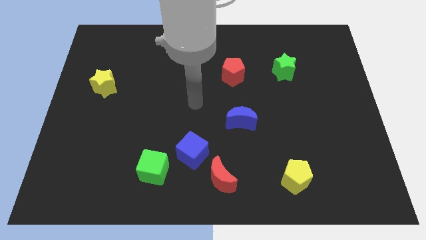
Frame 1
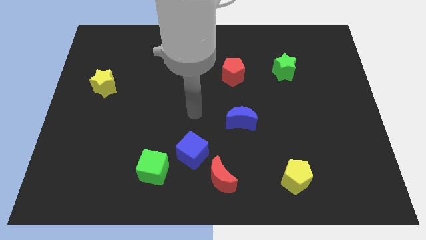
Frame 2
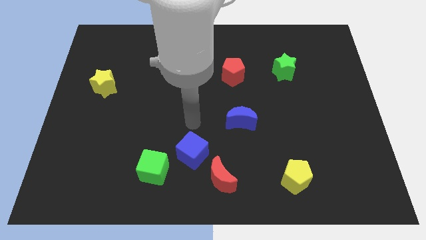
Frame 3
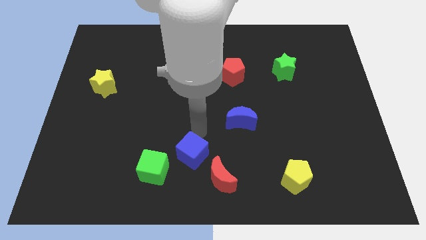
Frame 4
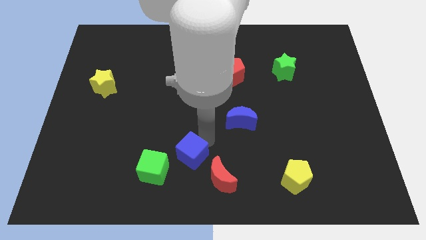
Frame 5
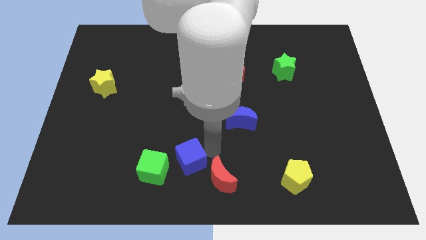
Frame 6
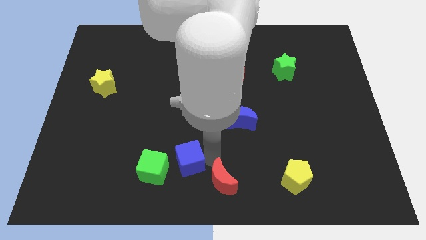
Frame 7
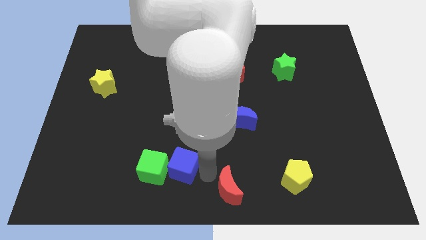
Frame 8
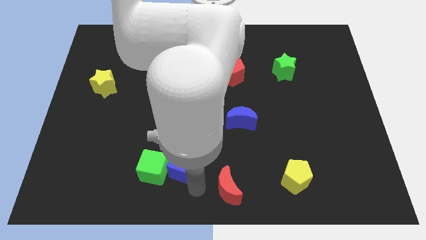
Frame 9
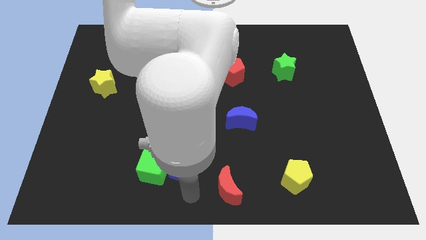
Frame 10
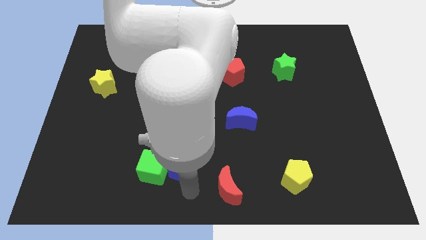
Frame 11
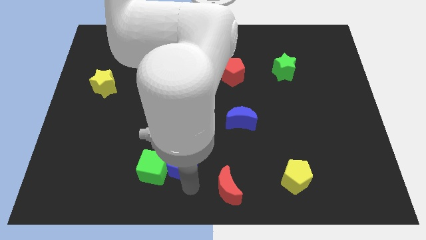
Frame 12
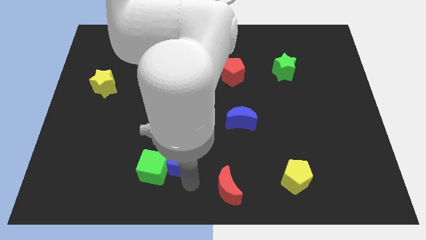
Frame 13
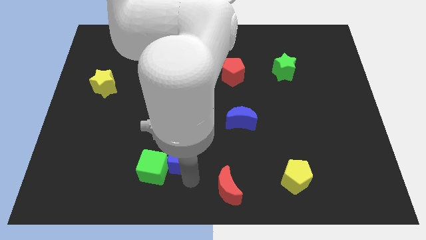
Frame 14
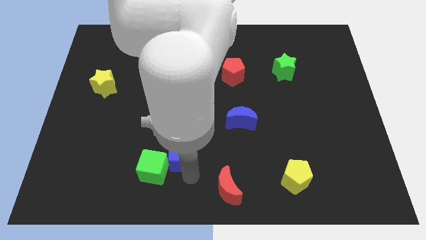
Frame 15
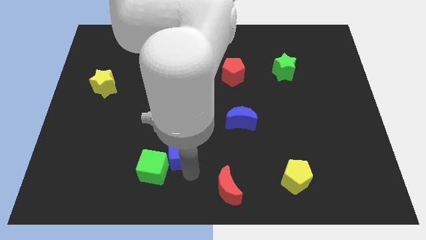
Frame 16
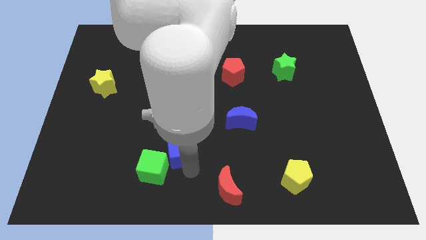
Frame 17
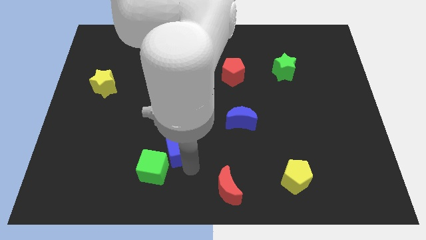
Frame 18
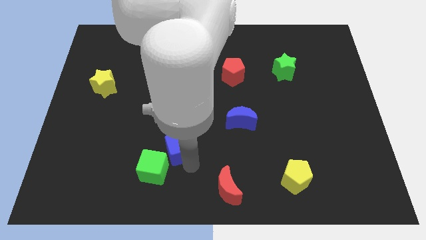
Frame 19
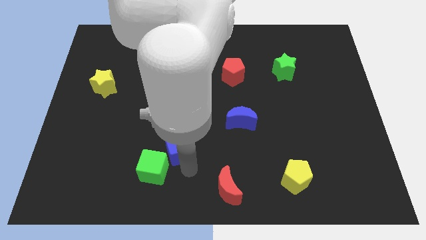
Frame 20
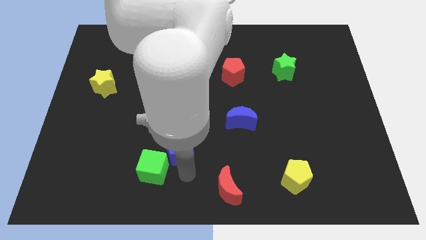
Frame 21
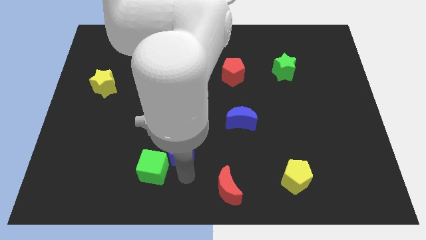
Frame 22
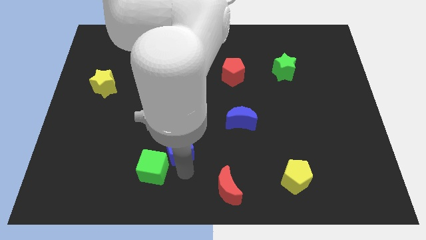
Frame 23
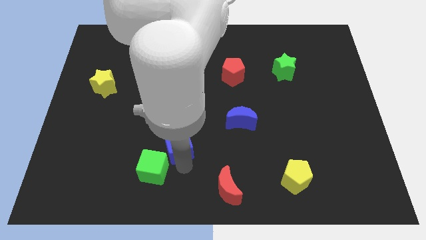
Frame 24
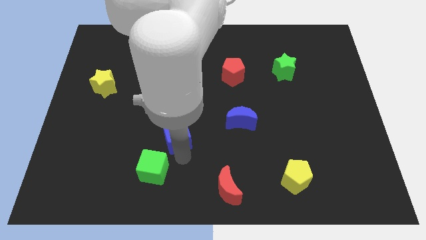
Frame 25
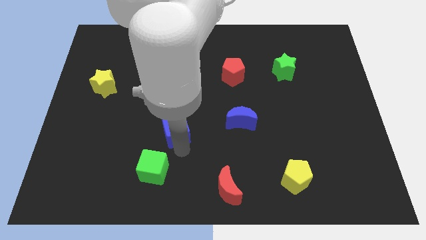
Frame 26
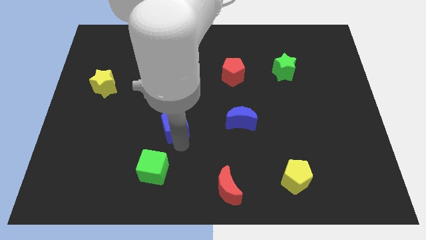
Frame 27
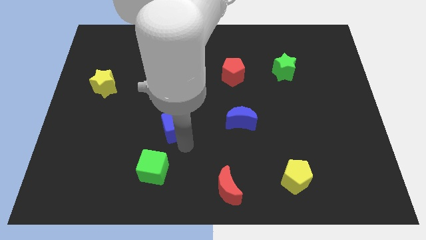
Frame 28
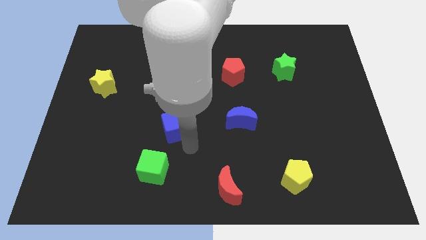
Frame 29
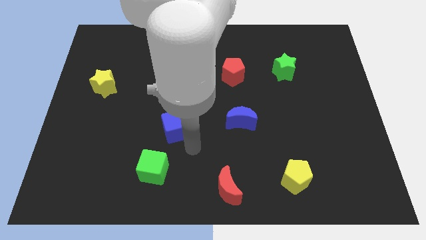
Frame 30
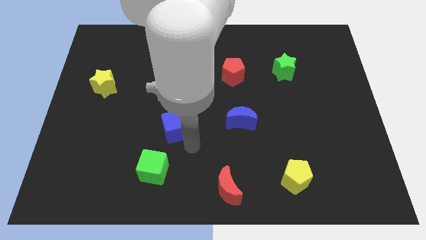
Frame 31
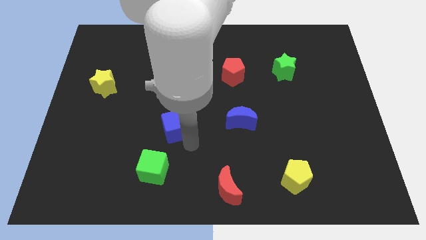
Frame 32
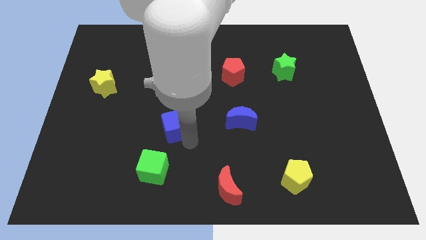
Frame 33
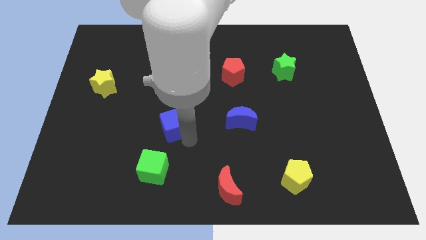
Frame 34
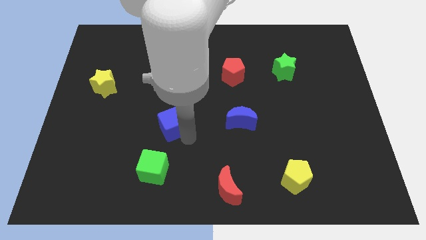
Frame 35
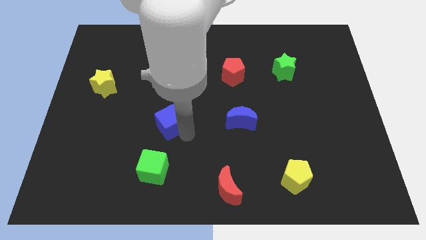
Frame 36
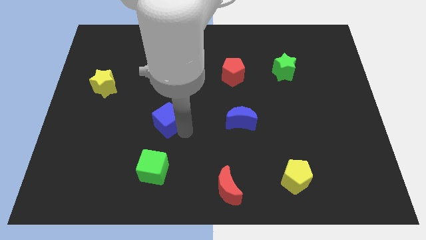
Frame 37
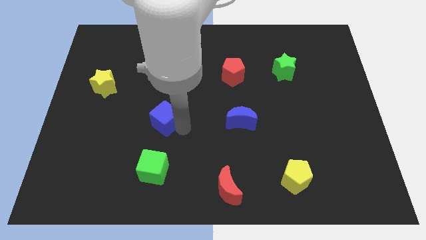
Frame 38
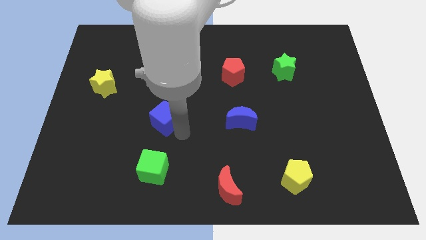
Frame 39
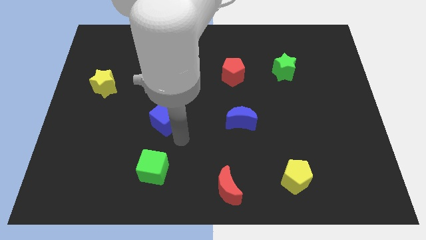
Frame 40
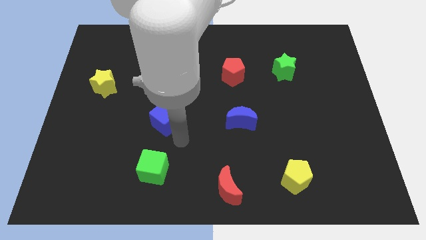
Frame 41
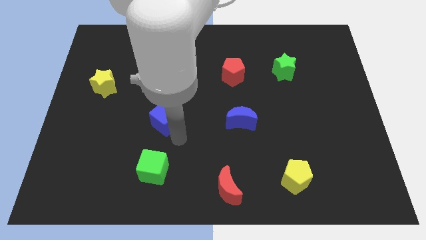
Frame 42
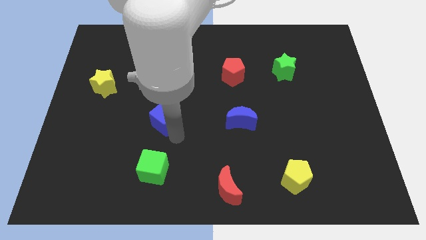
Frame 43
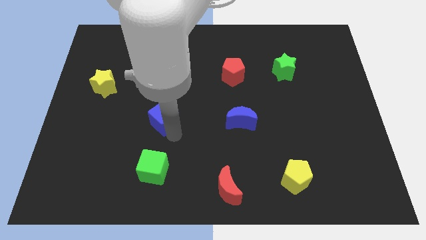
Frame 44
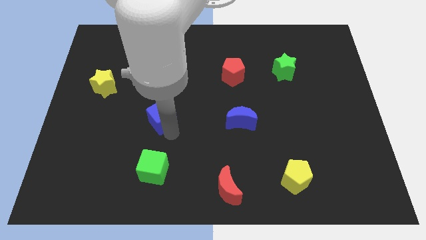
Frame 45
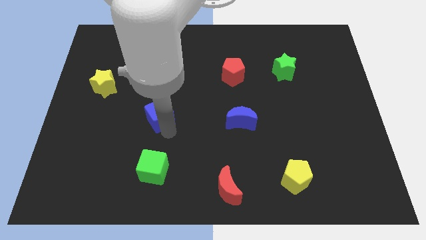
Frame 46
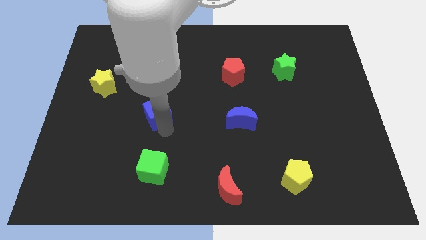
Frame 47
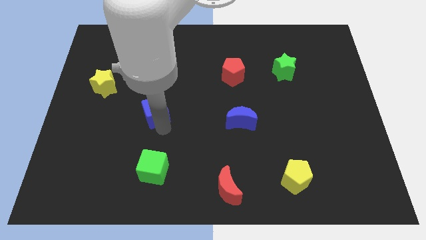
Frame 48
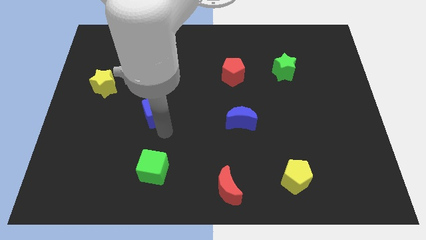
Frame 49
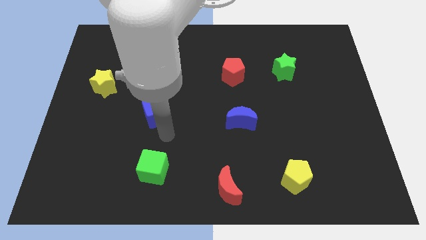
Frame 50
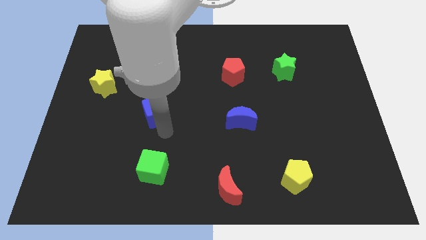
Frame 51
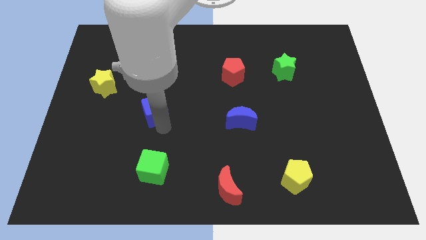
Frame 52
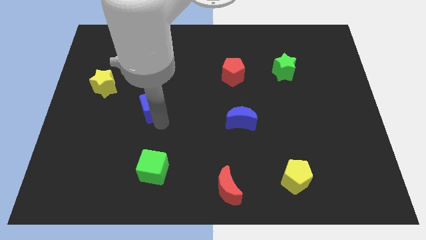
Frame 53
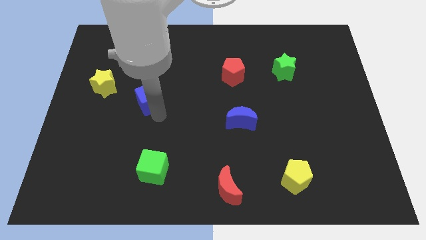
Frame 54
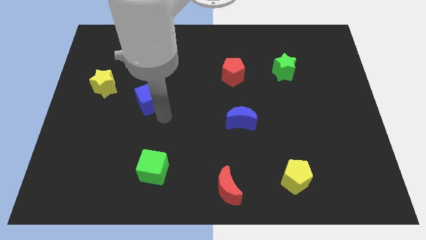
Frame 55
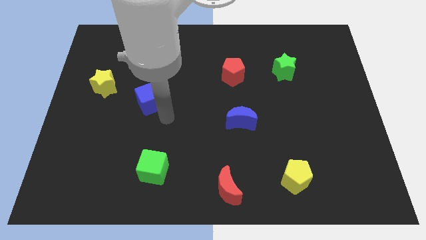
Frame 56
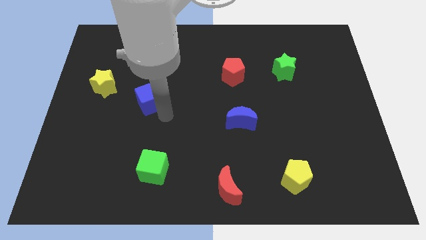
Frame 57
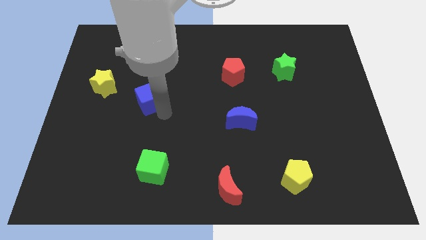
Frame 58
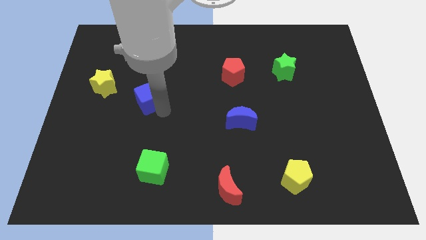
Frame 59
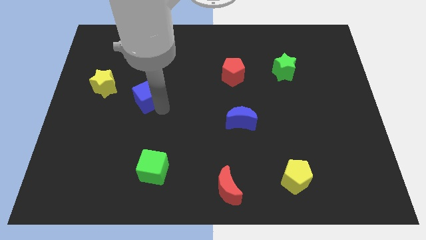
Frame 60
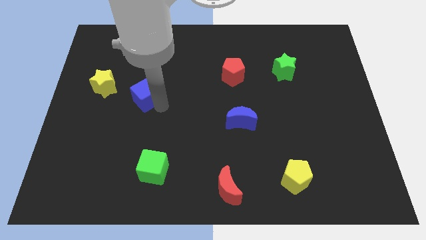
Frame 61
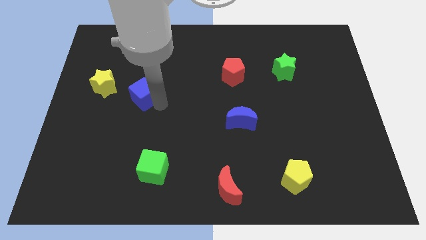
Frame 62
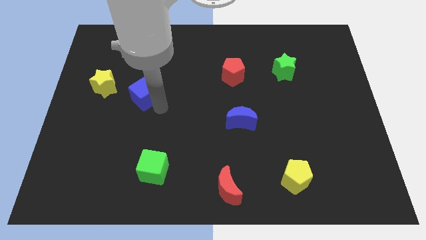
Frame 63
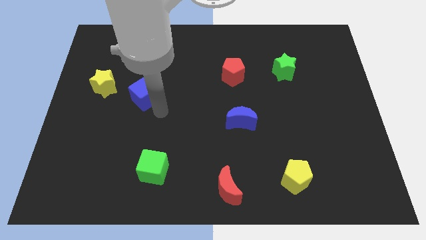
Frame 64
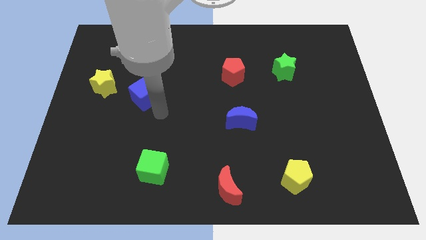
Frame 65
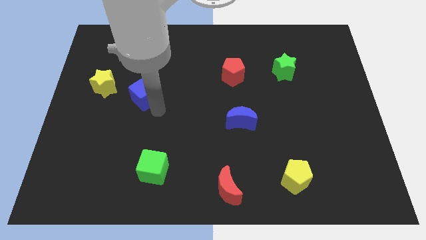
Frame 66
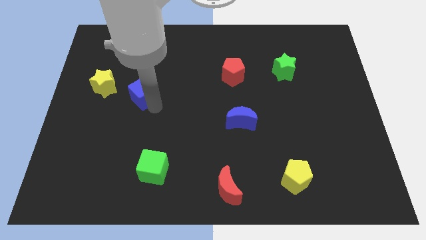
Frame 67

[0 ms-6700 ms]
slide the blue cube upwards and left diagonally

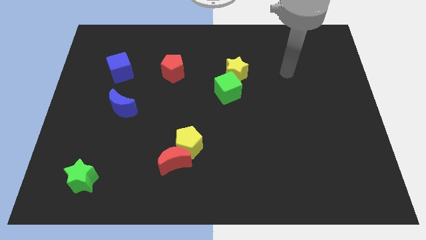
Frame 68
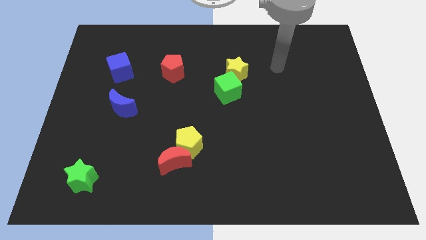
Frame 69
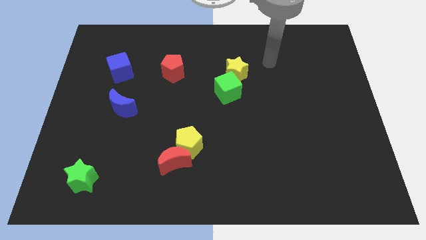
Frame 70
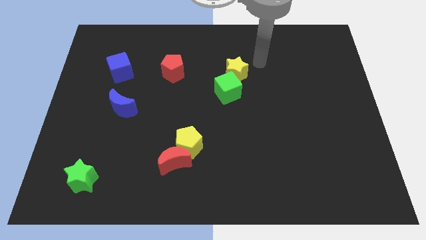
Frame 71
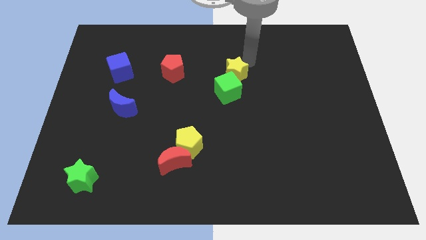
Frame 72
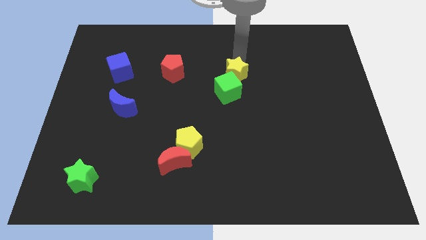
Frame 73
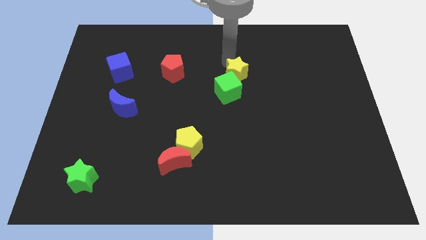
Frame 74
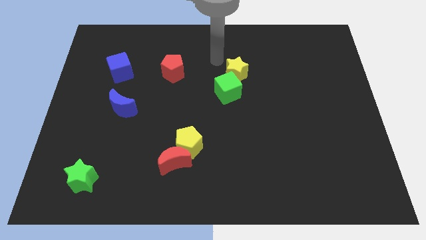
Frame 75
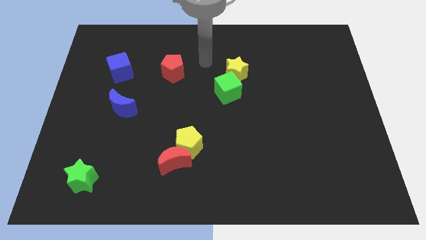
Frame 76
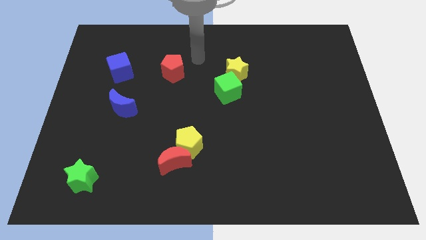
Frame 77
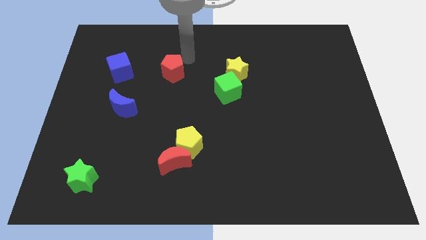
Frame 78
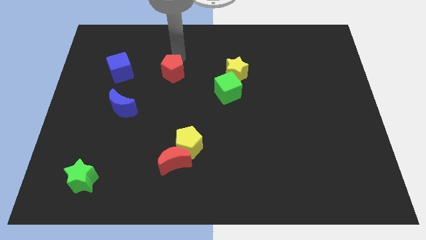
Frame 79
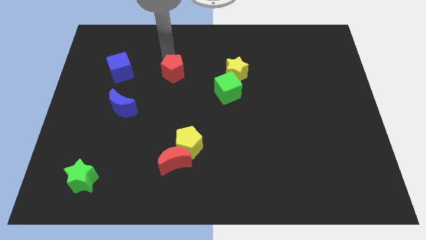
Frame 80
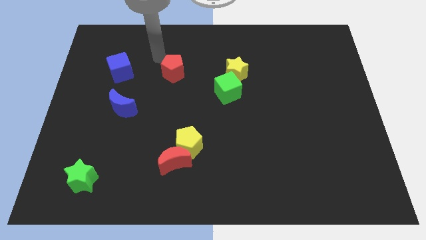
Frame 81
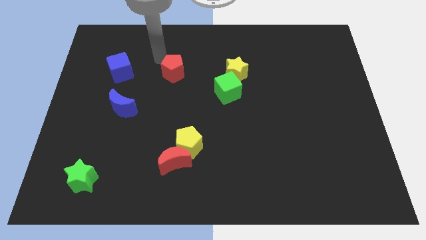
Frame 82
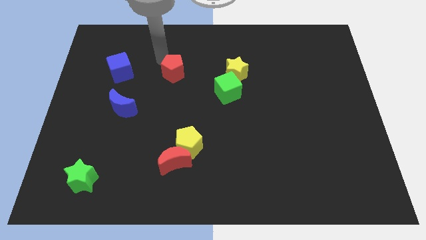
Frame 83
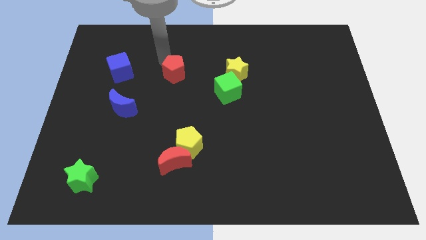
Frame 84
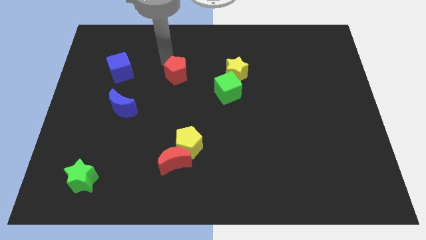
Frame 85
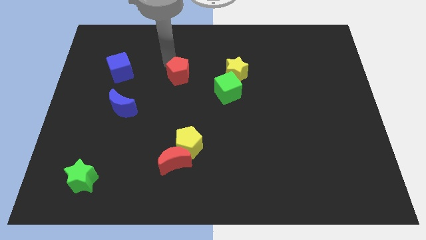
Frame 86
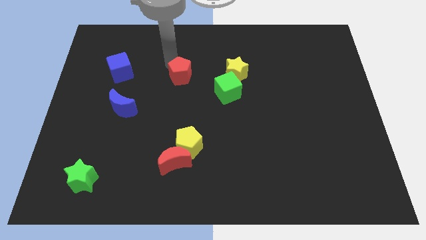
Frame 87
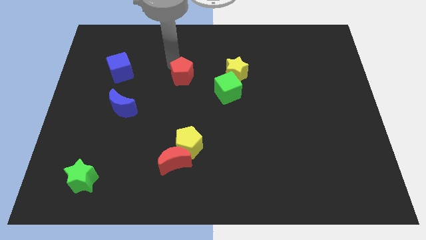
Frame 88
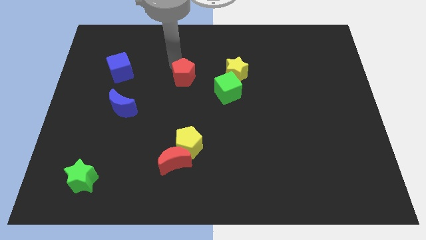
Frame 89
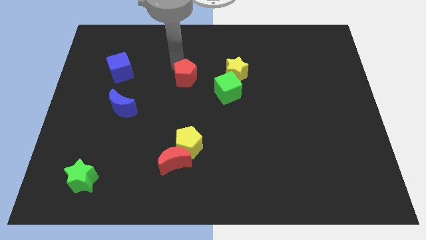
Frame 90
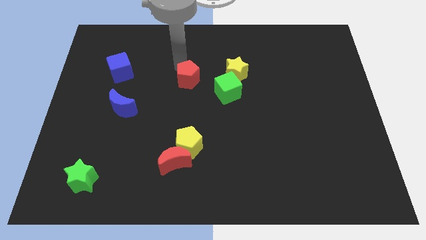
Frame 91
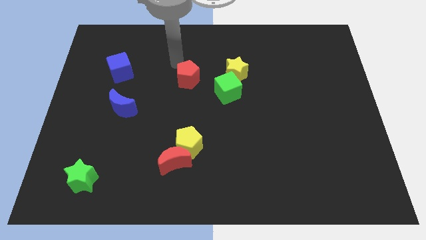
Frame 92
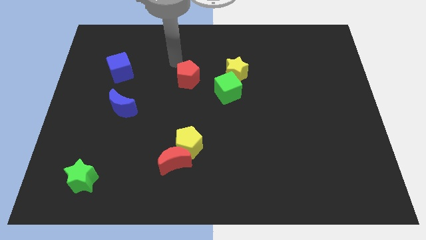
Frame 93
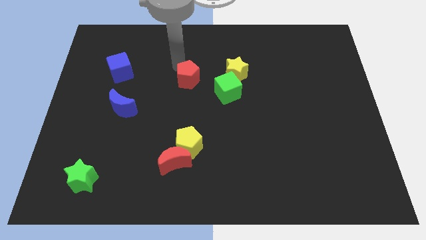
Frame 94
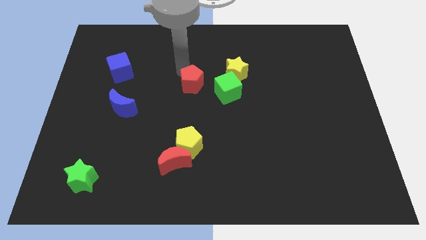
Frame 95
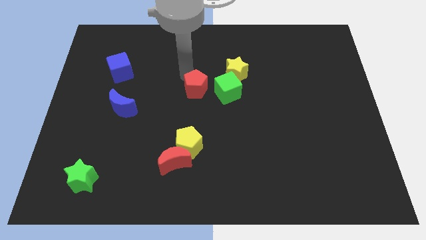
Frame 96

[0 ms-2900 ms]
slightly move the red pentagon downwards and then right
